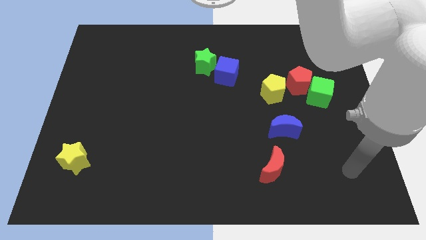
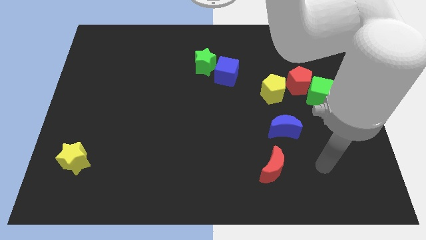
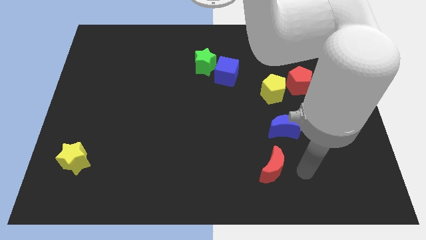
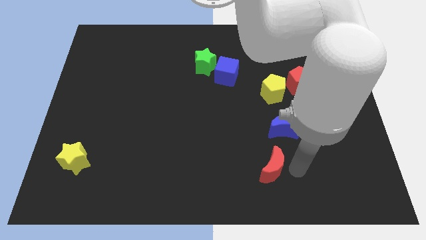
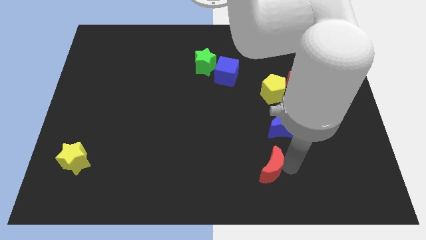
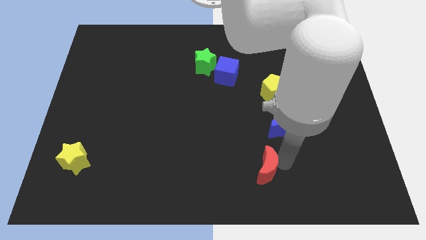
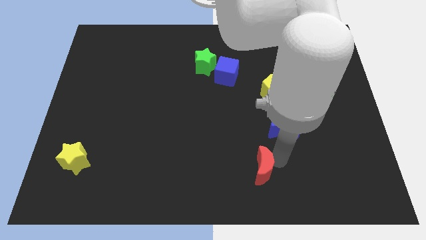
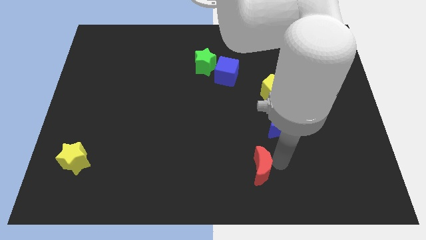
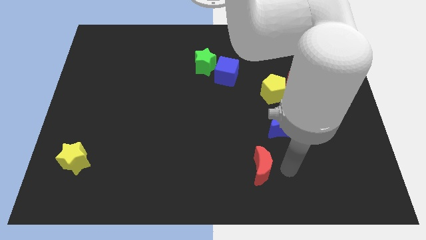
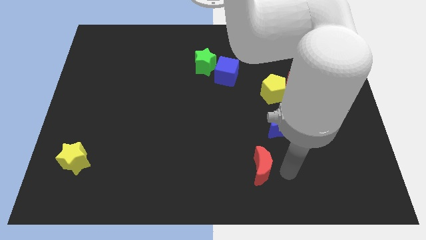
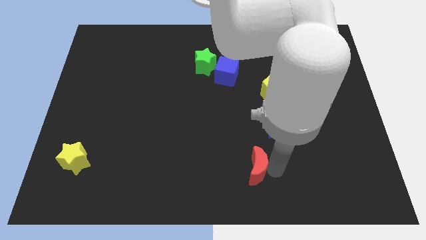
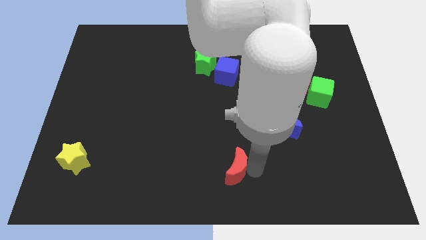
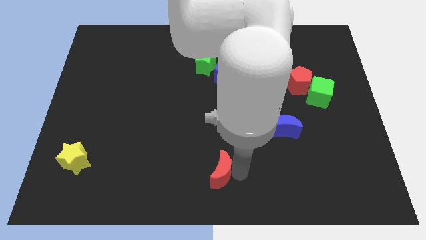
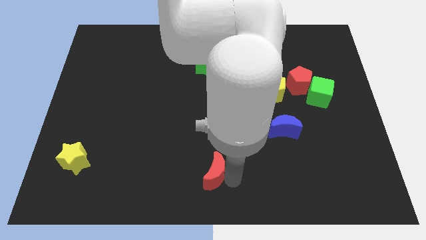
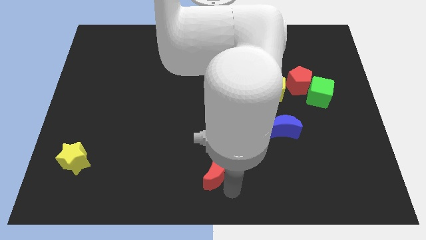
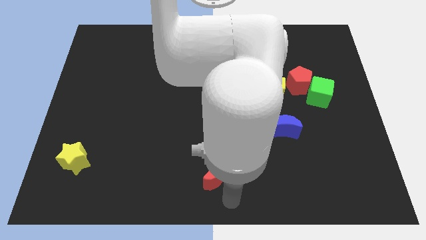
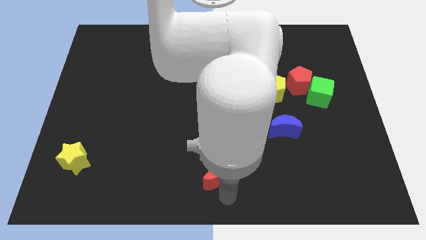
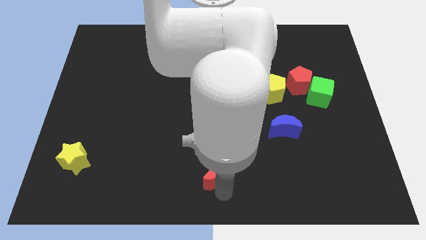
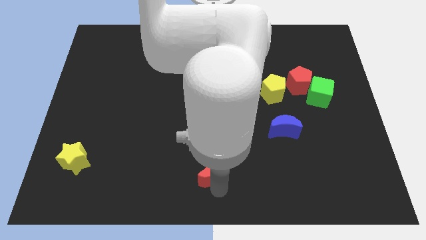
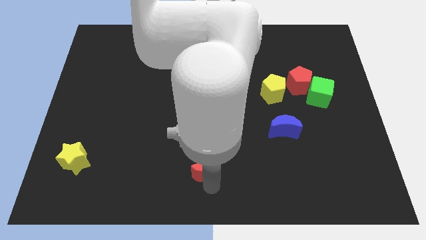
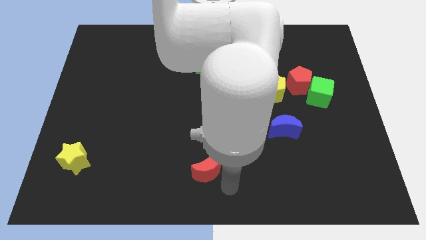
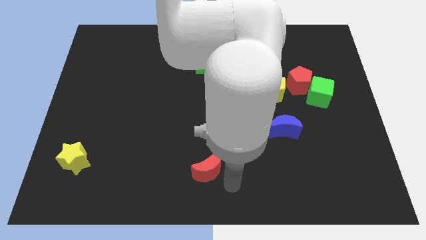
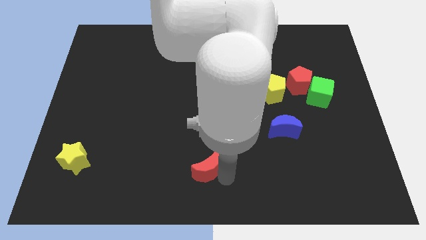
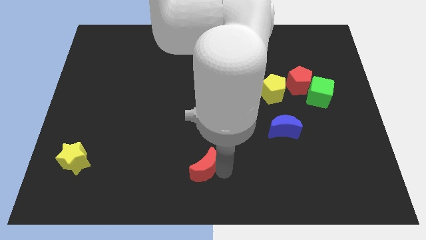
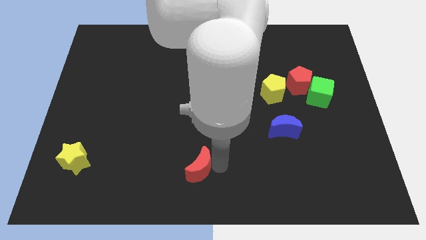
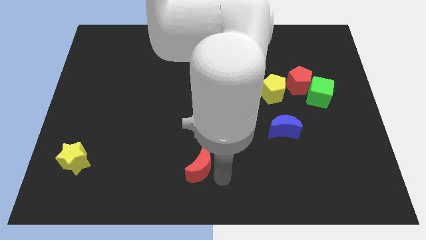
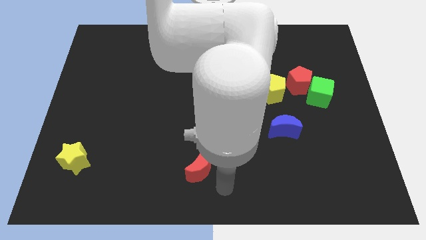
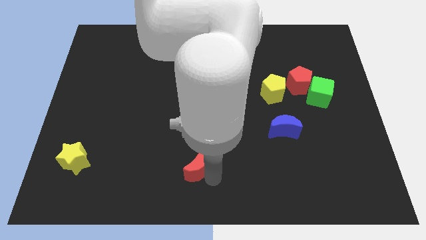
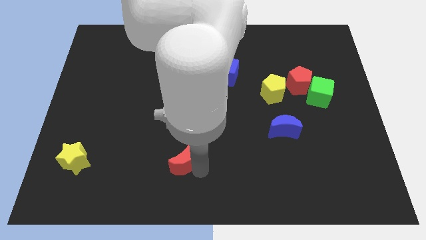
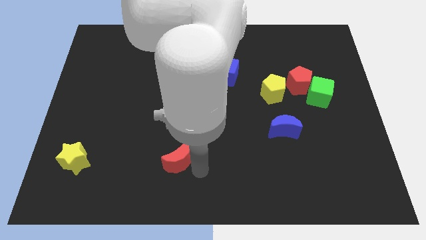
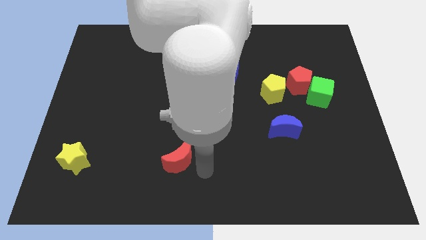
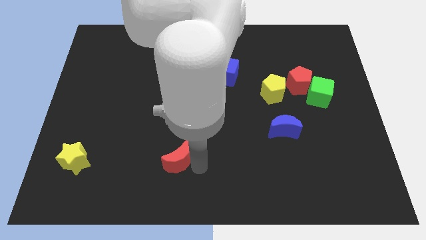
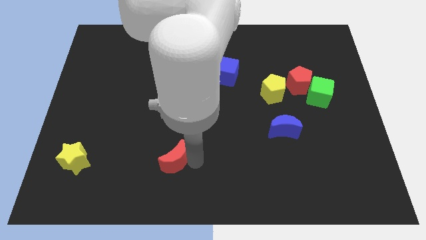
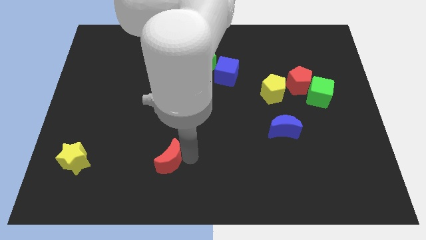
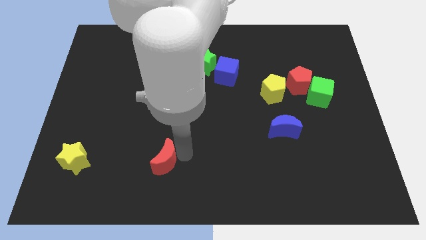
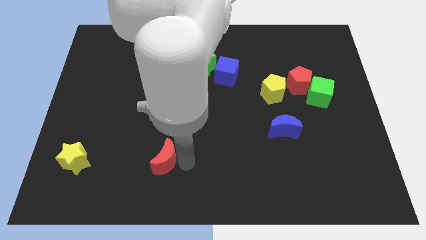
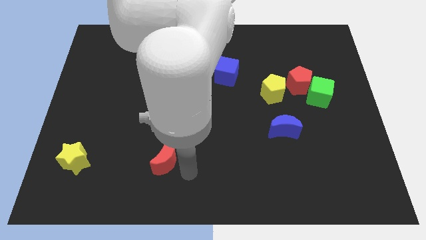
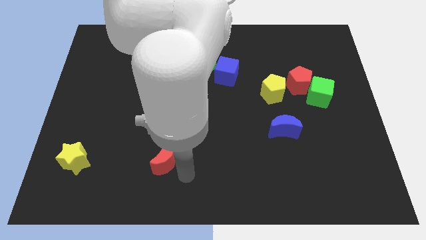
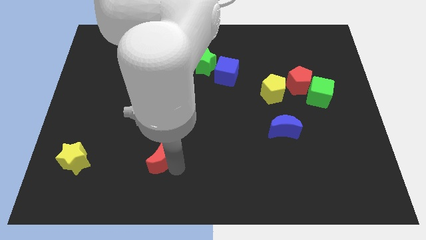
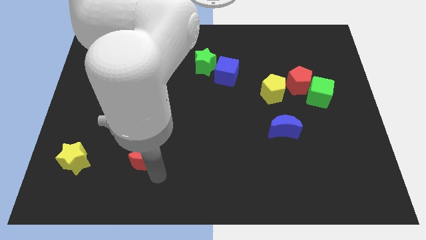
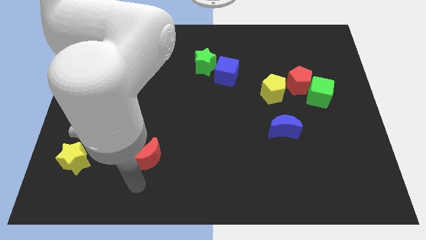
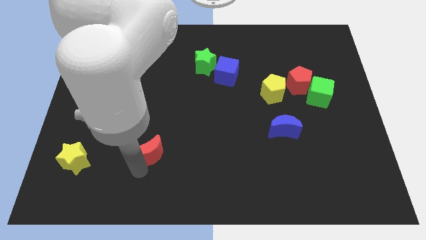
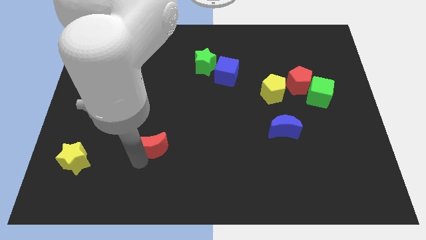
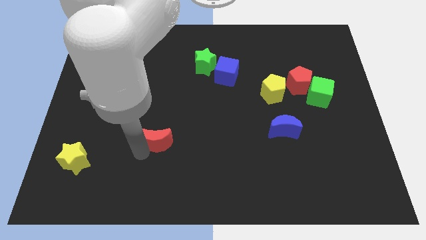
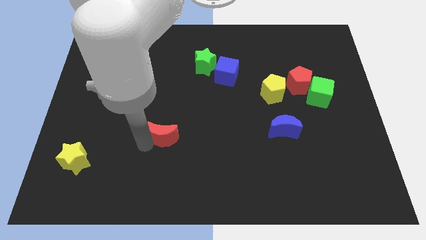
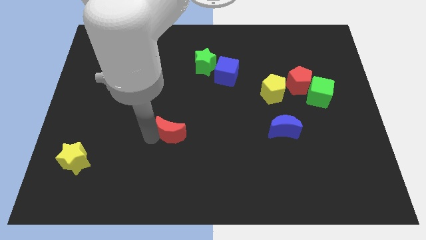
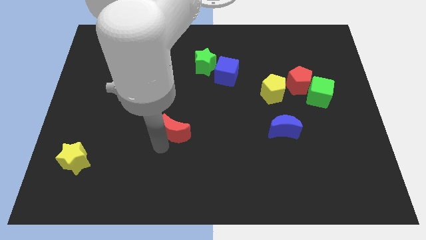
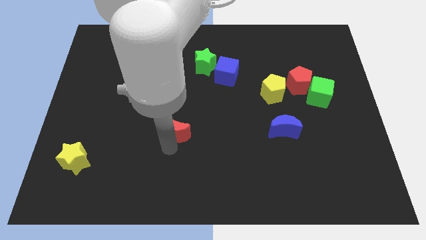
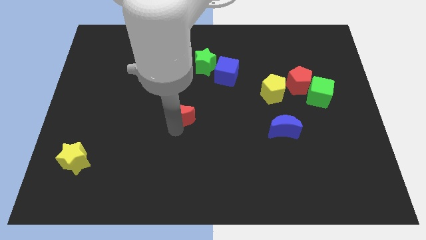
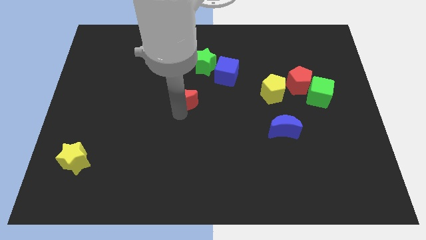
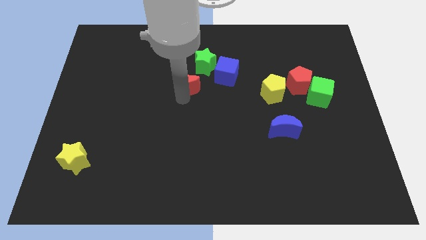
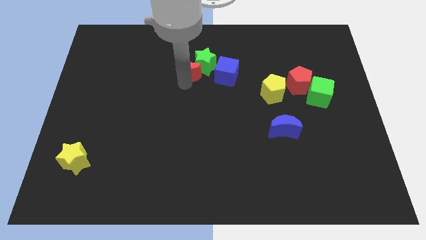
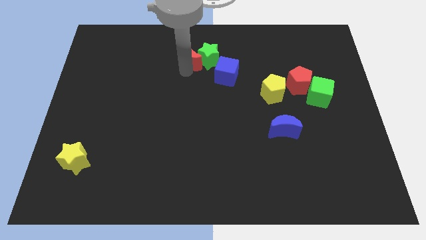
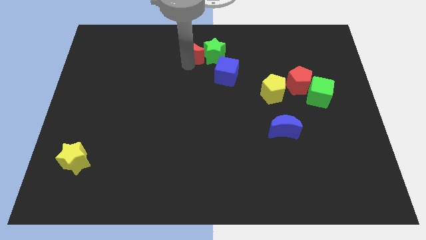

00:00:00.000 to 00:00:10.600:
put the red moon to the top
